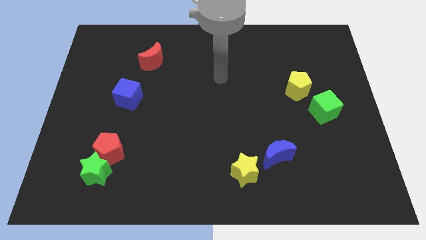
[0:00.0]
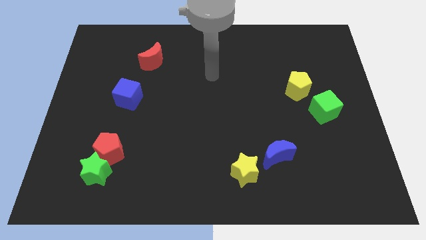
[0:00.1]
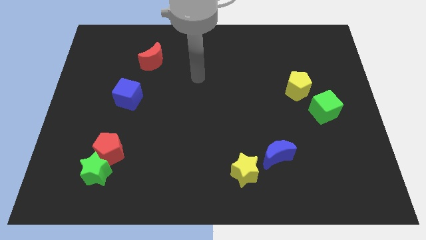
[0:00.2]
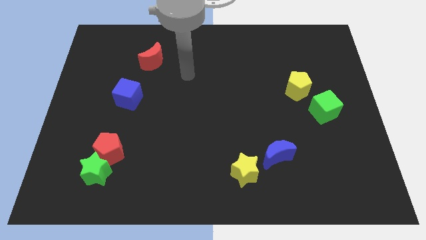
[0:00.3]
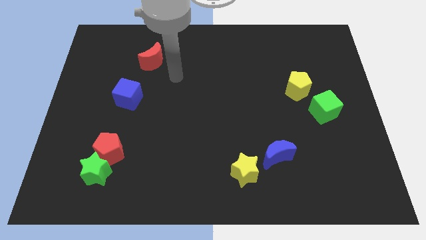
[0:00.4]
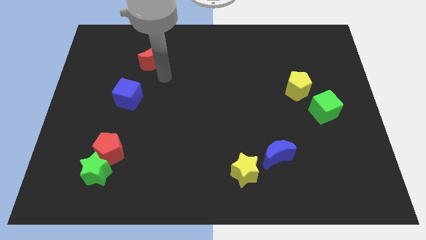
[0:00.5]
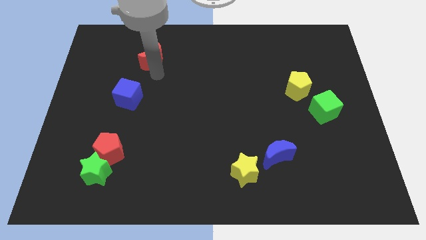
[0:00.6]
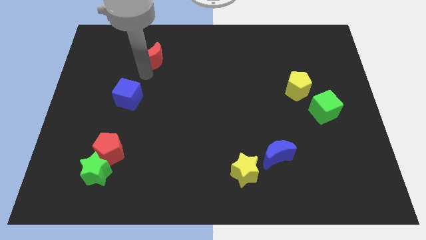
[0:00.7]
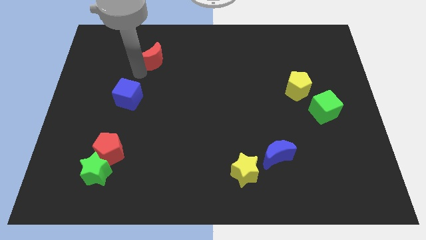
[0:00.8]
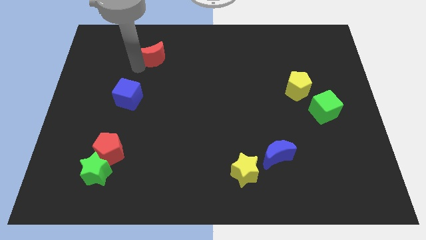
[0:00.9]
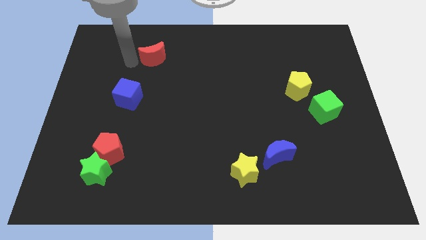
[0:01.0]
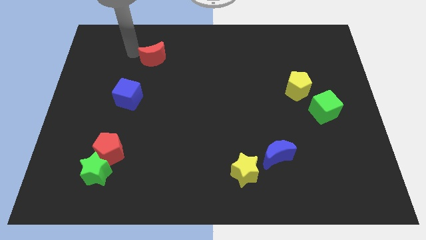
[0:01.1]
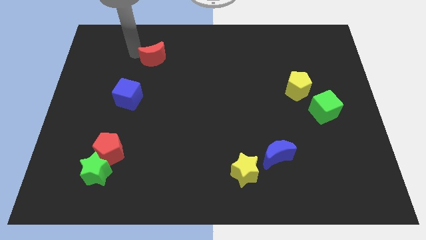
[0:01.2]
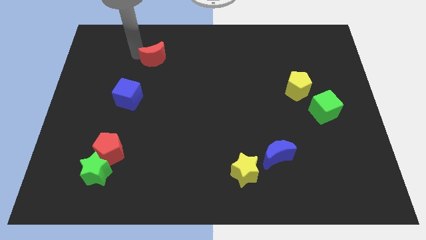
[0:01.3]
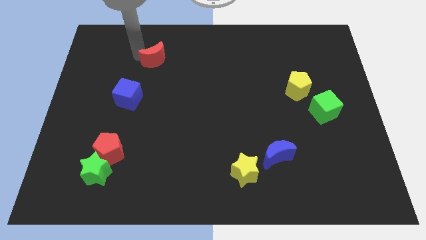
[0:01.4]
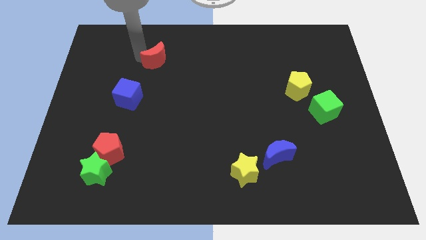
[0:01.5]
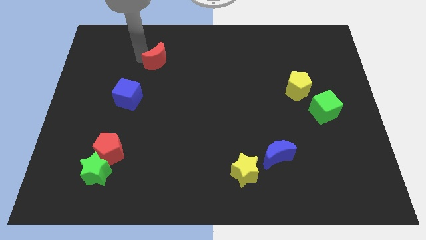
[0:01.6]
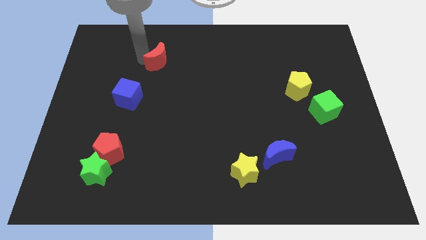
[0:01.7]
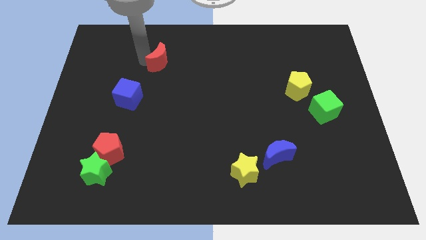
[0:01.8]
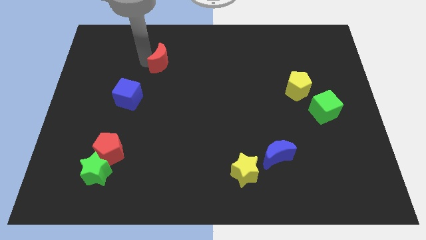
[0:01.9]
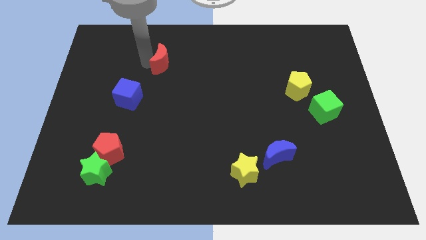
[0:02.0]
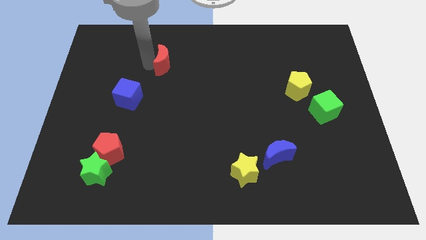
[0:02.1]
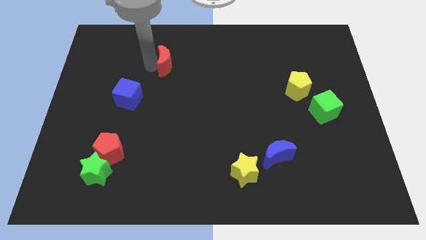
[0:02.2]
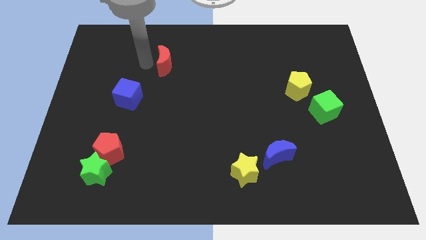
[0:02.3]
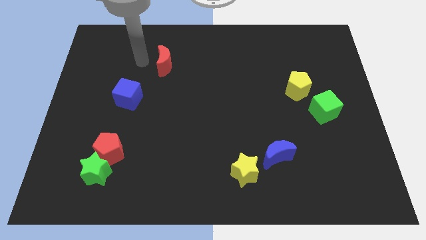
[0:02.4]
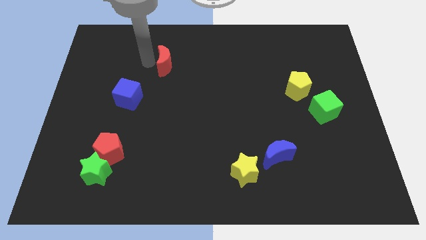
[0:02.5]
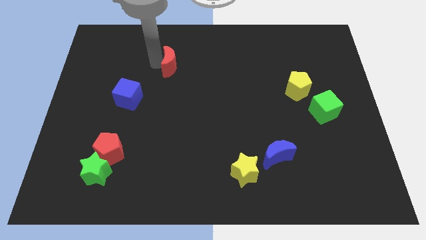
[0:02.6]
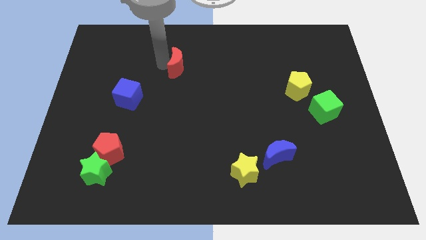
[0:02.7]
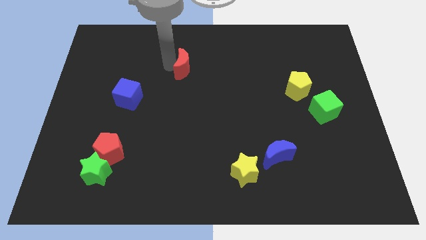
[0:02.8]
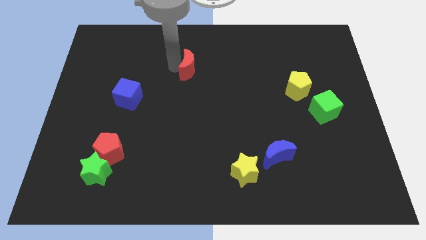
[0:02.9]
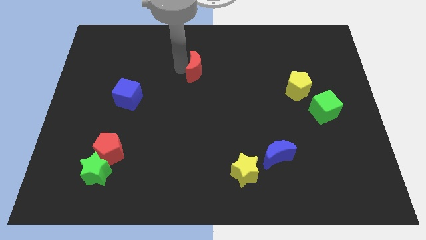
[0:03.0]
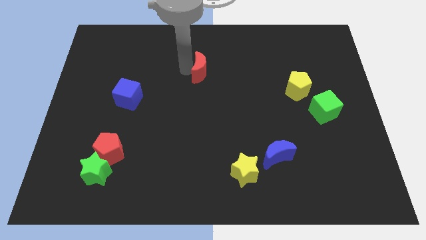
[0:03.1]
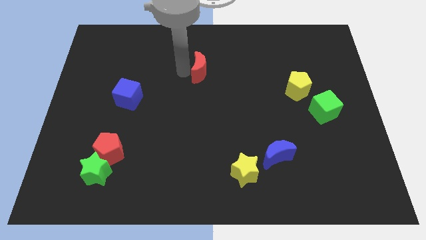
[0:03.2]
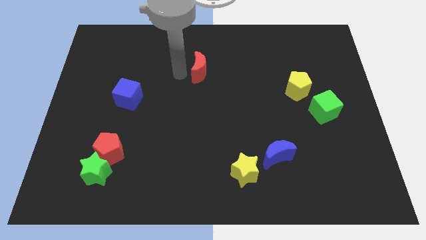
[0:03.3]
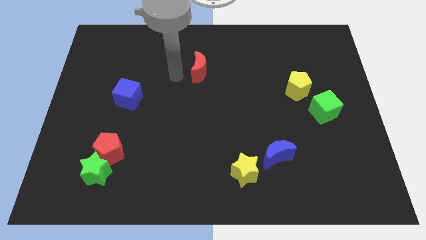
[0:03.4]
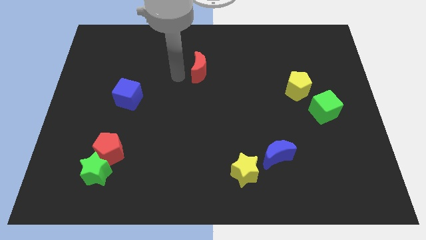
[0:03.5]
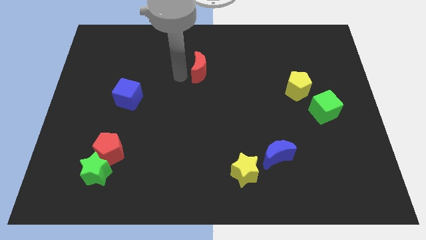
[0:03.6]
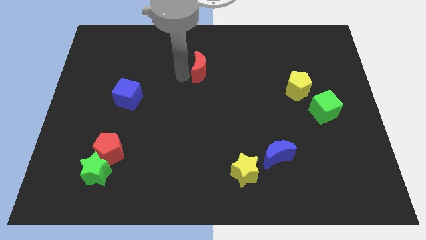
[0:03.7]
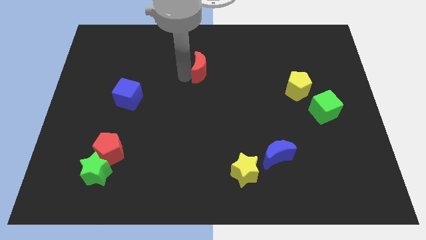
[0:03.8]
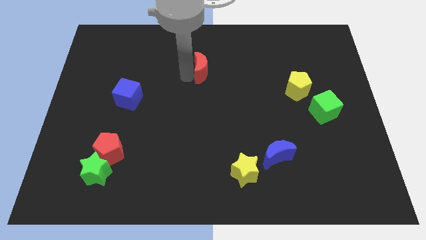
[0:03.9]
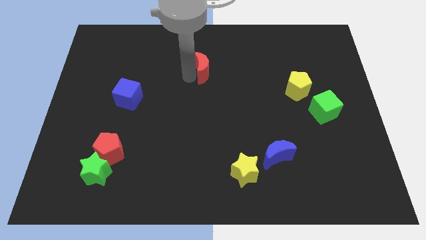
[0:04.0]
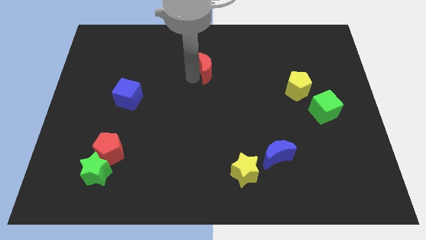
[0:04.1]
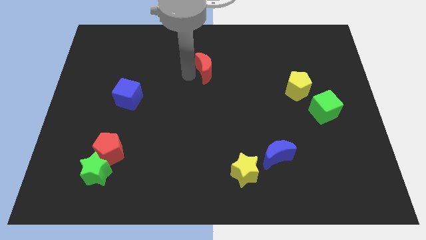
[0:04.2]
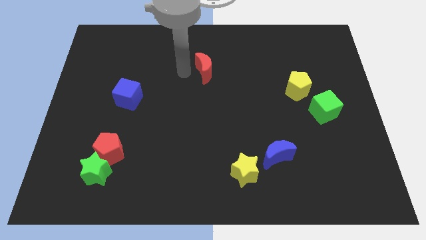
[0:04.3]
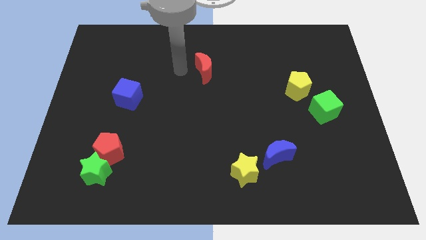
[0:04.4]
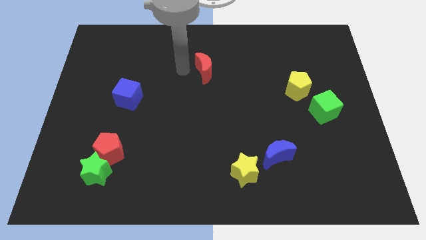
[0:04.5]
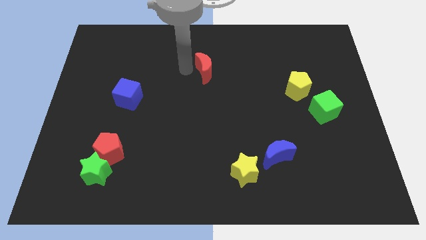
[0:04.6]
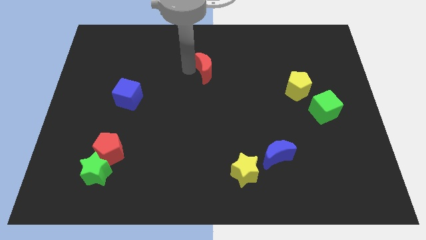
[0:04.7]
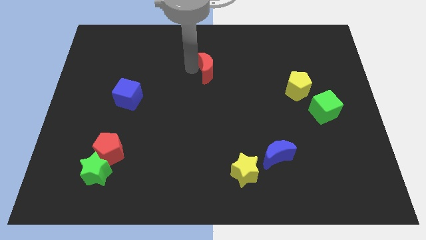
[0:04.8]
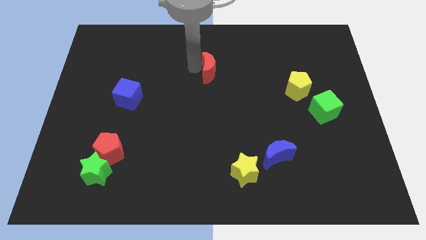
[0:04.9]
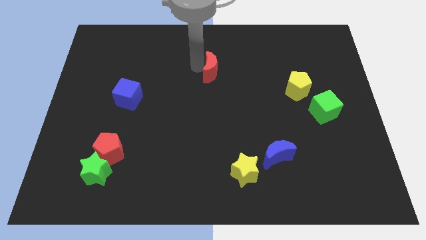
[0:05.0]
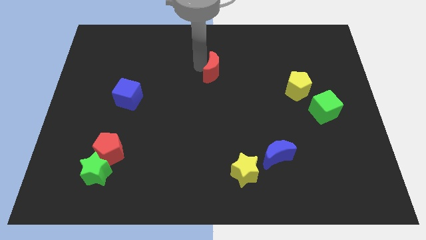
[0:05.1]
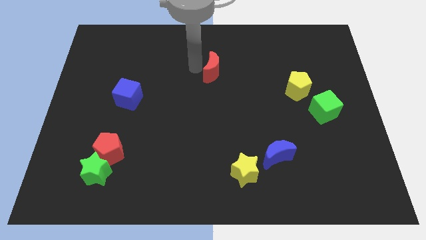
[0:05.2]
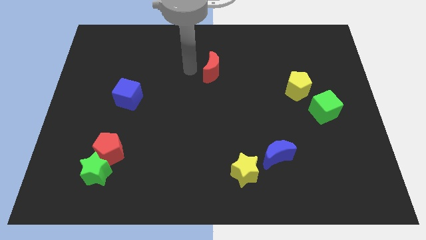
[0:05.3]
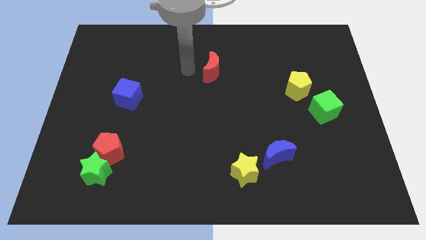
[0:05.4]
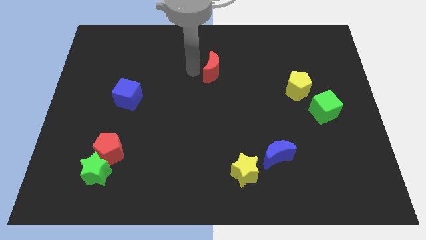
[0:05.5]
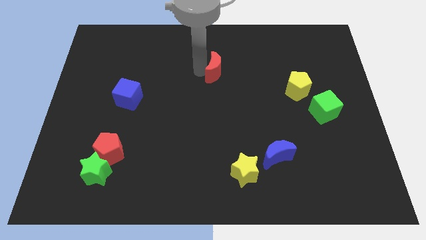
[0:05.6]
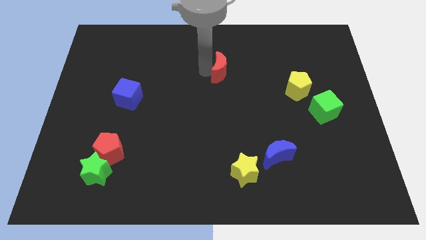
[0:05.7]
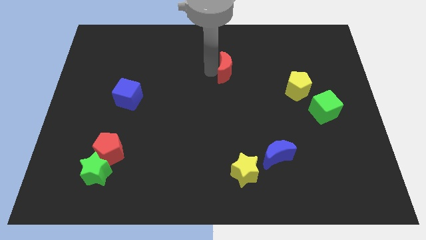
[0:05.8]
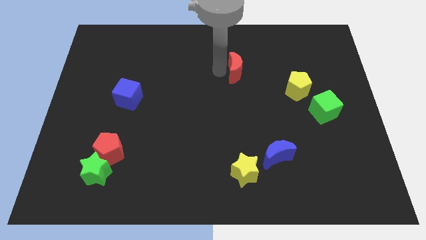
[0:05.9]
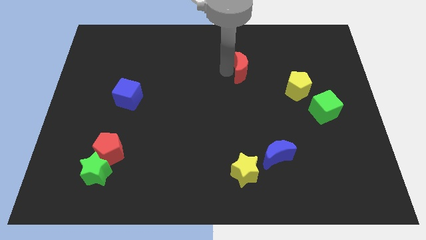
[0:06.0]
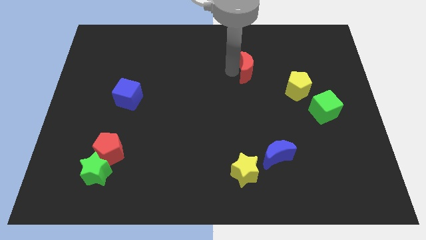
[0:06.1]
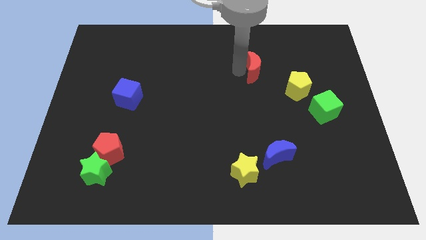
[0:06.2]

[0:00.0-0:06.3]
slide the red moon to the top left side of the yellow pentagon

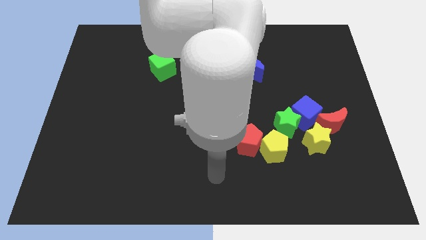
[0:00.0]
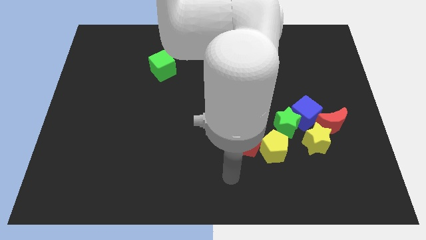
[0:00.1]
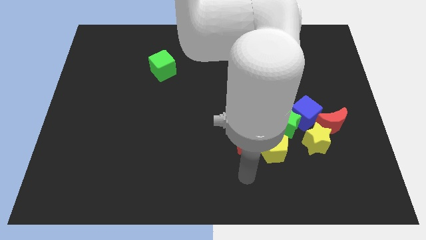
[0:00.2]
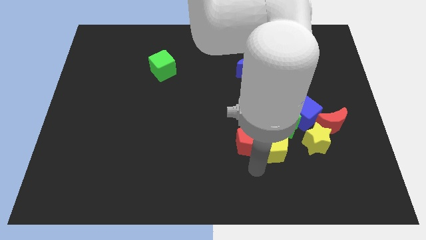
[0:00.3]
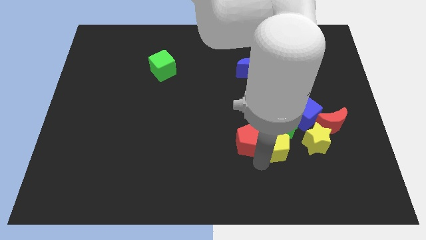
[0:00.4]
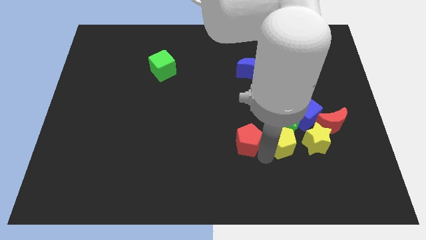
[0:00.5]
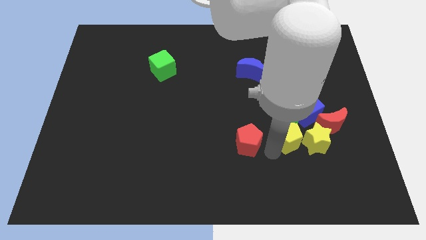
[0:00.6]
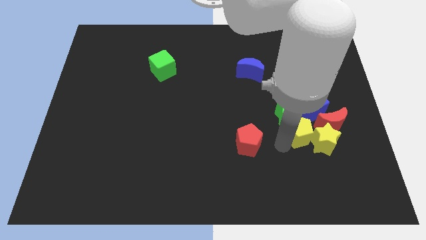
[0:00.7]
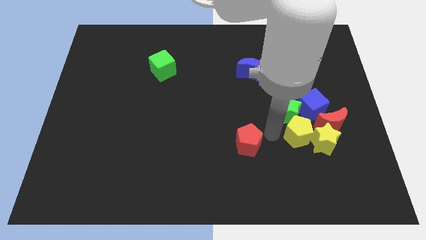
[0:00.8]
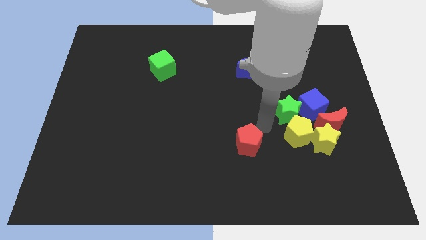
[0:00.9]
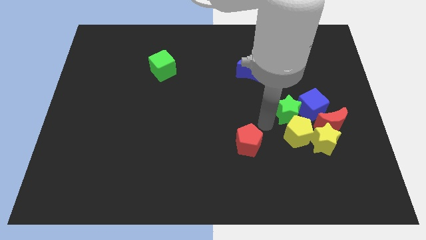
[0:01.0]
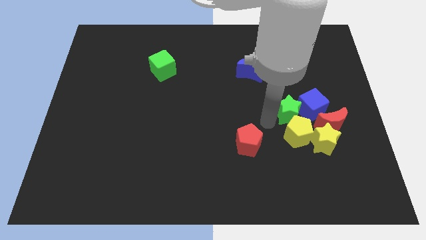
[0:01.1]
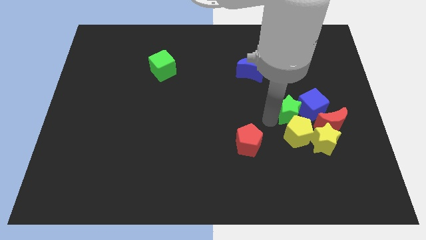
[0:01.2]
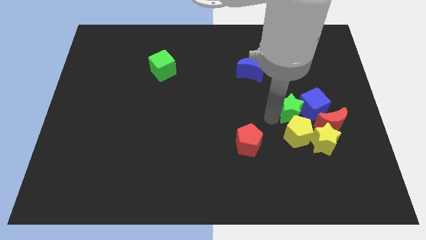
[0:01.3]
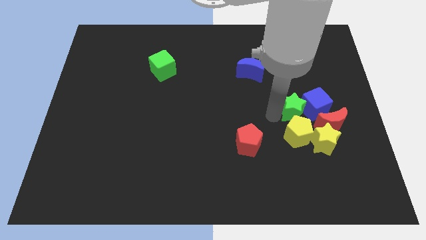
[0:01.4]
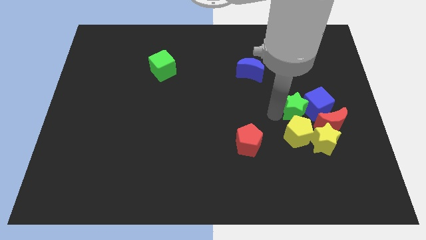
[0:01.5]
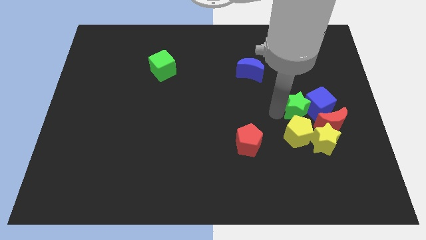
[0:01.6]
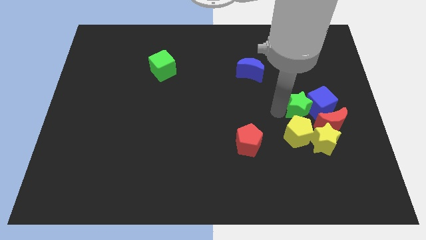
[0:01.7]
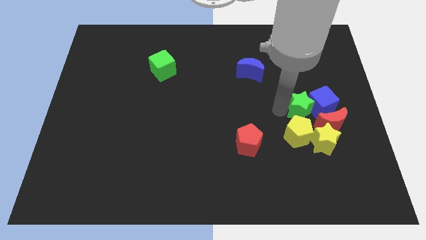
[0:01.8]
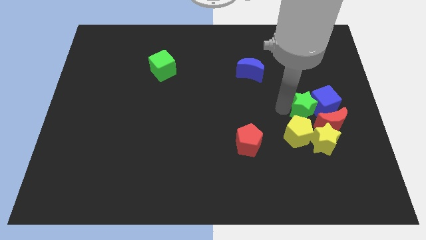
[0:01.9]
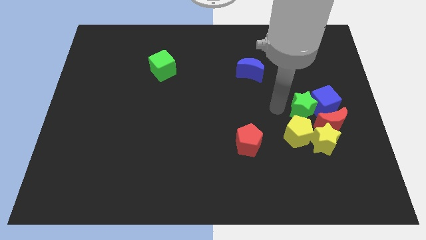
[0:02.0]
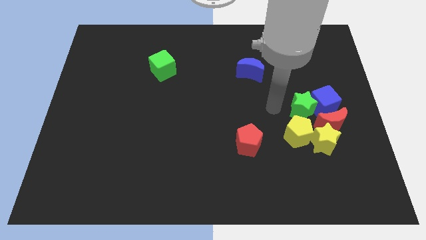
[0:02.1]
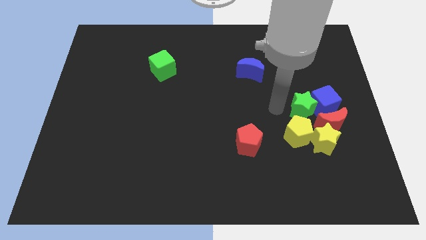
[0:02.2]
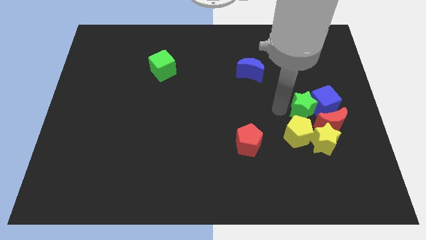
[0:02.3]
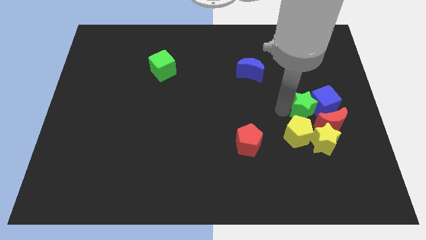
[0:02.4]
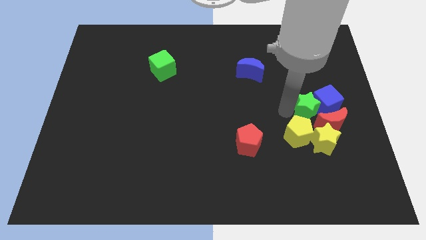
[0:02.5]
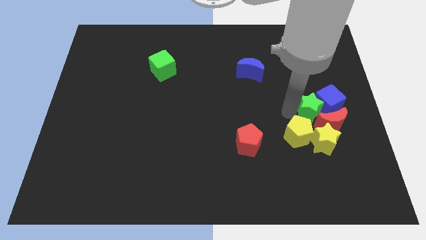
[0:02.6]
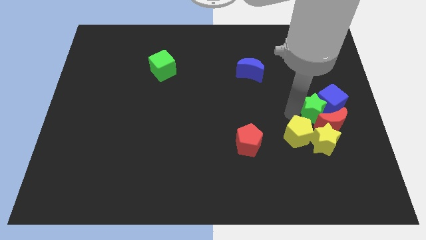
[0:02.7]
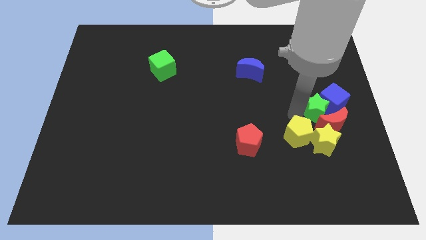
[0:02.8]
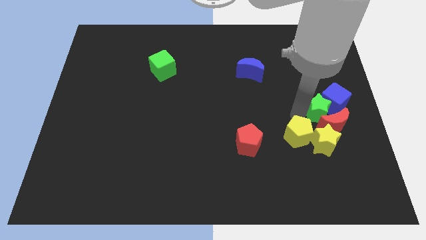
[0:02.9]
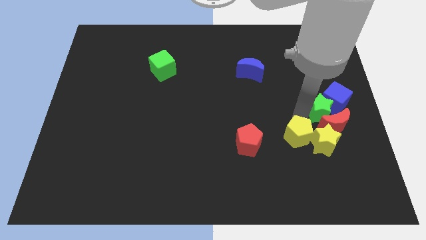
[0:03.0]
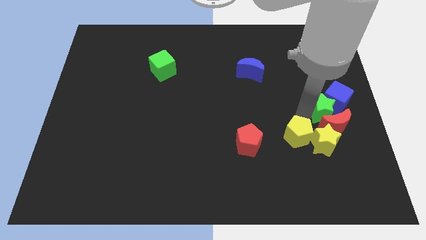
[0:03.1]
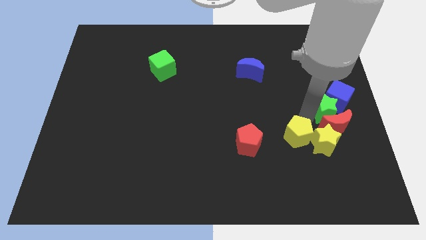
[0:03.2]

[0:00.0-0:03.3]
slide the green star to the top right of the yellow star
